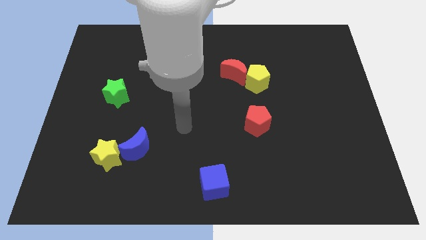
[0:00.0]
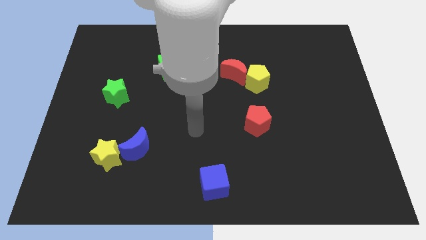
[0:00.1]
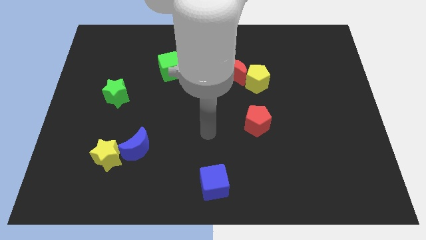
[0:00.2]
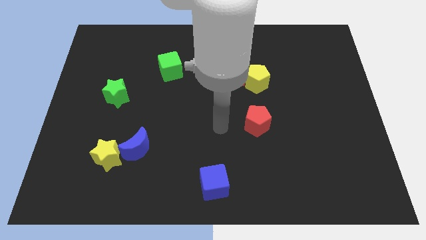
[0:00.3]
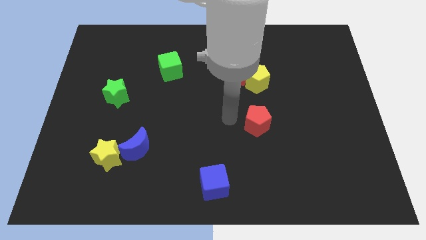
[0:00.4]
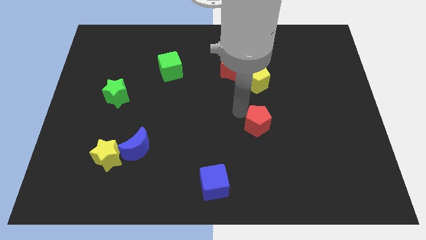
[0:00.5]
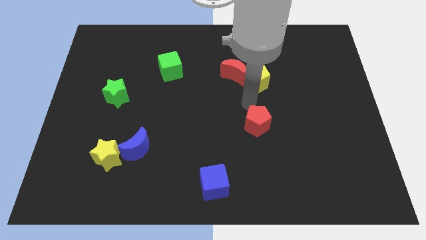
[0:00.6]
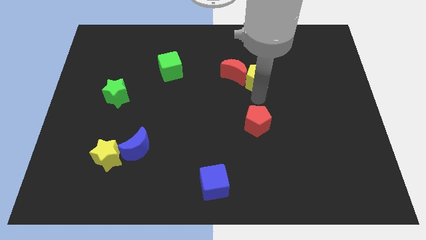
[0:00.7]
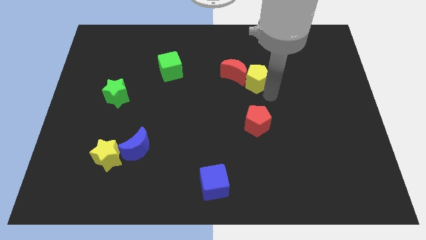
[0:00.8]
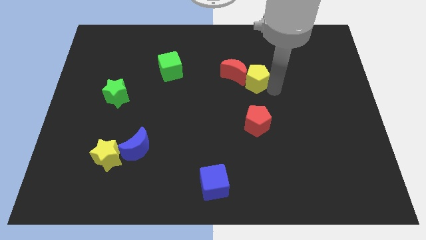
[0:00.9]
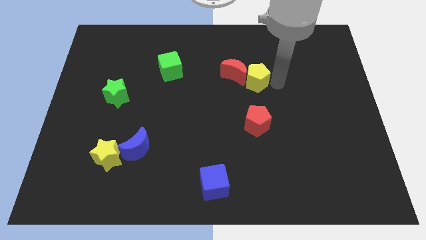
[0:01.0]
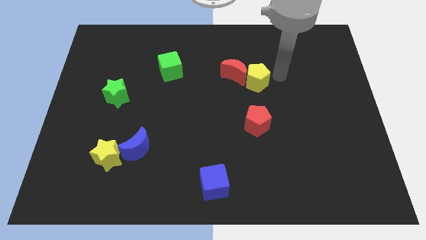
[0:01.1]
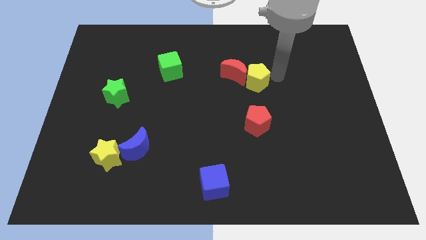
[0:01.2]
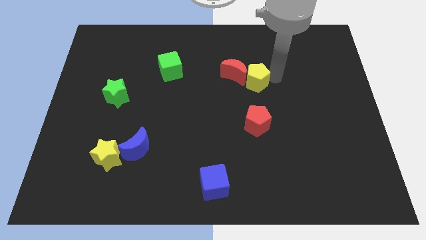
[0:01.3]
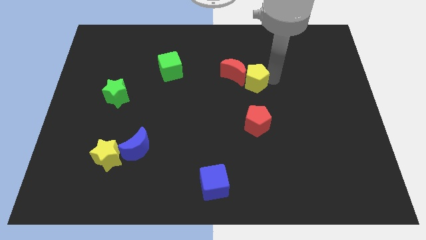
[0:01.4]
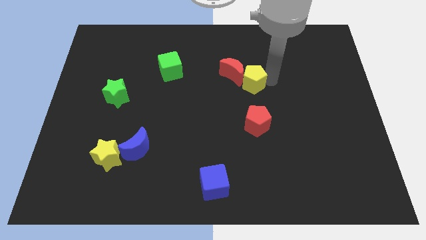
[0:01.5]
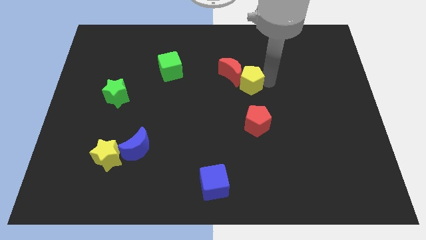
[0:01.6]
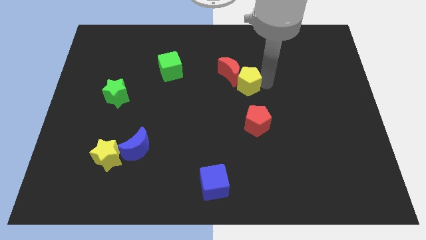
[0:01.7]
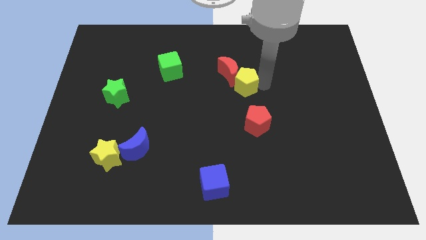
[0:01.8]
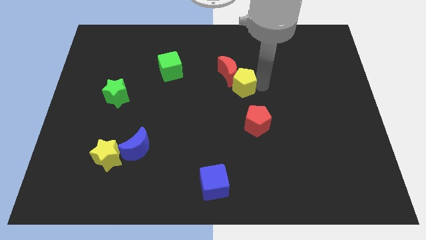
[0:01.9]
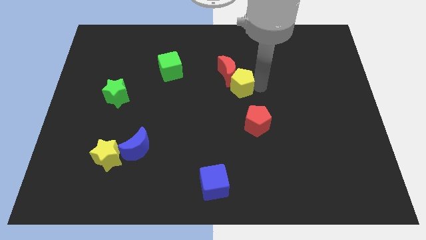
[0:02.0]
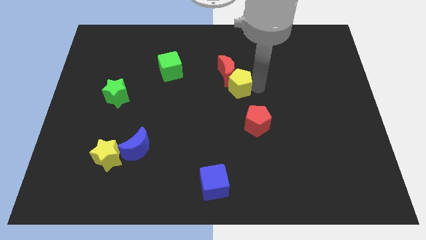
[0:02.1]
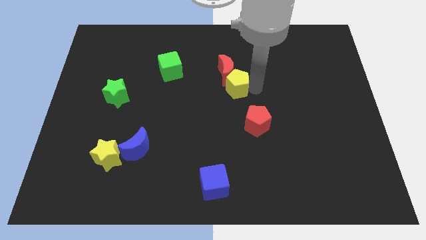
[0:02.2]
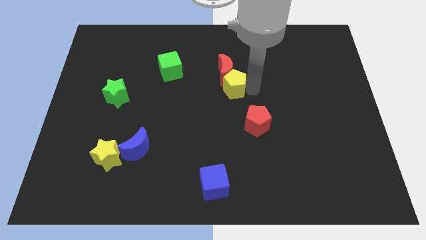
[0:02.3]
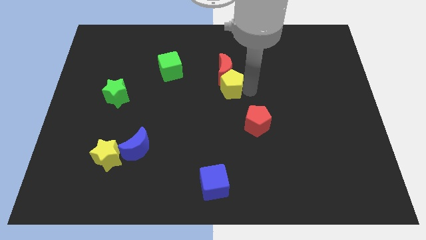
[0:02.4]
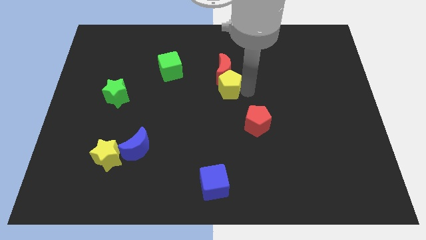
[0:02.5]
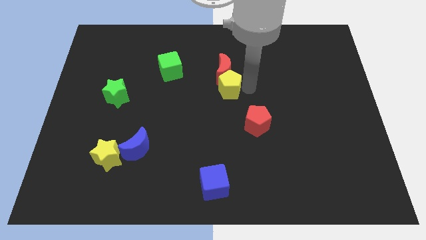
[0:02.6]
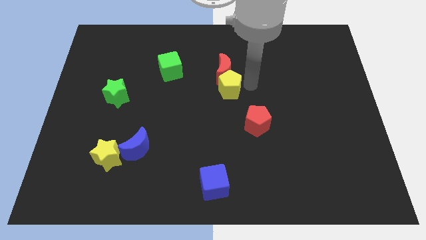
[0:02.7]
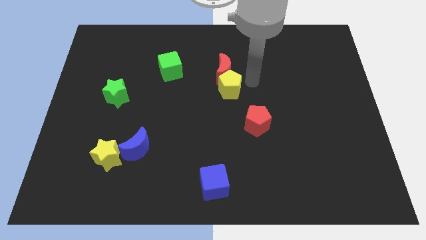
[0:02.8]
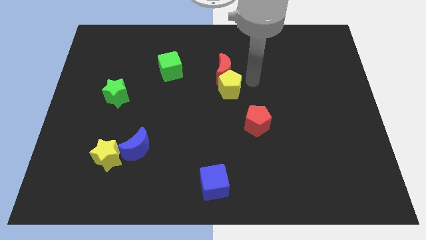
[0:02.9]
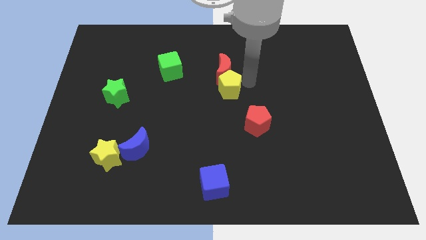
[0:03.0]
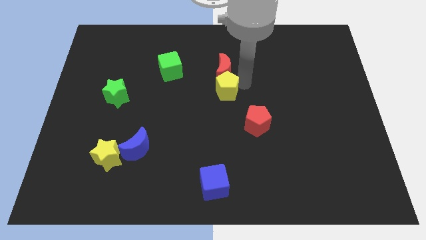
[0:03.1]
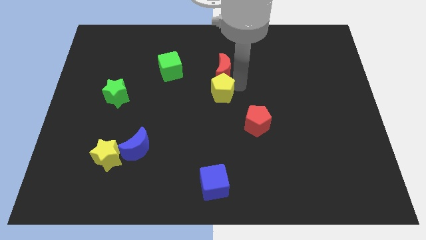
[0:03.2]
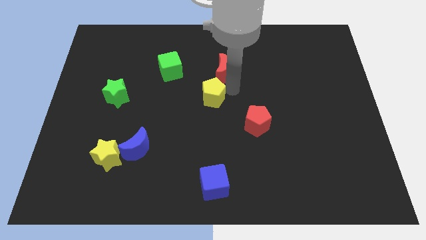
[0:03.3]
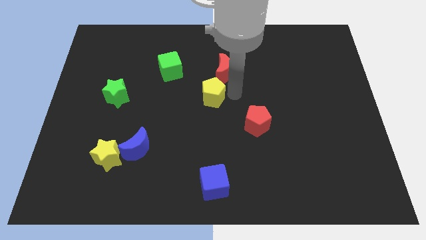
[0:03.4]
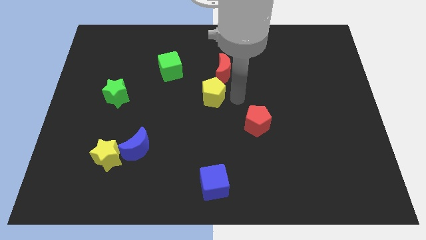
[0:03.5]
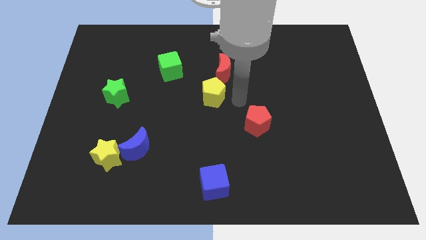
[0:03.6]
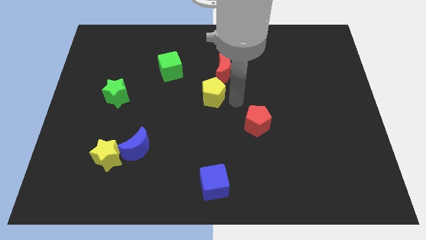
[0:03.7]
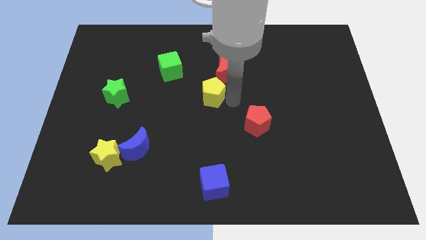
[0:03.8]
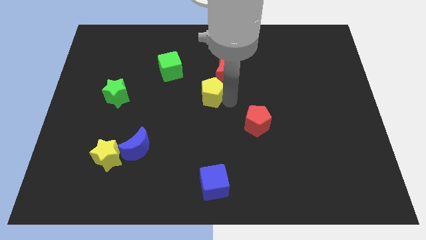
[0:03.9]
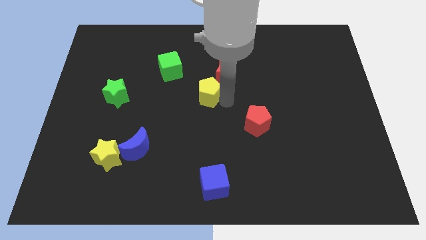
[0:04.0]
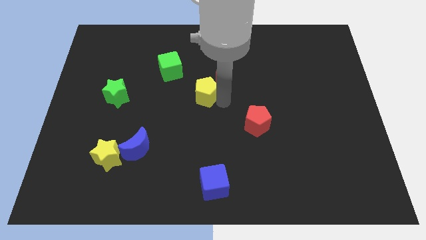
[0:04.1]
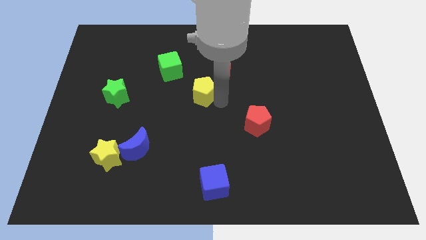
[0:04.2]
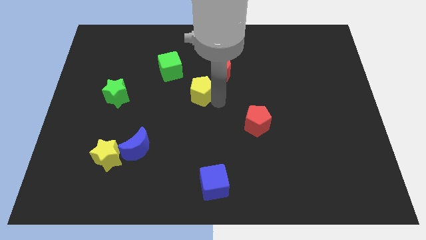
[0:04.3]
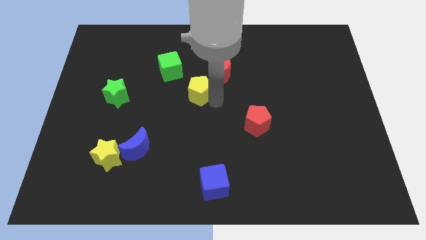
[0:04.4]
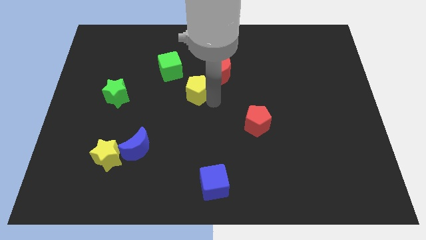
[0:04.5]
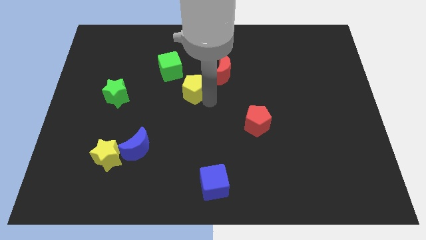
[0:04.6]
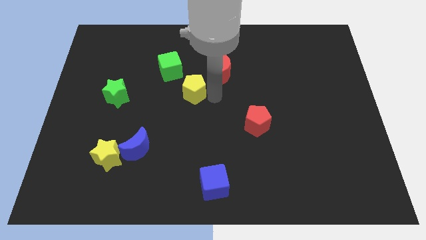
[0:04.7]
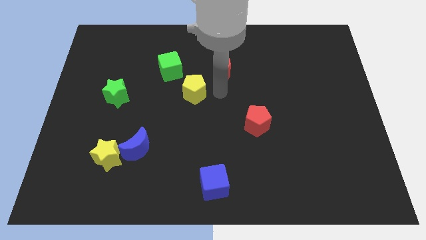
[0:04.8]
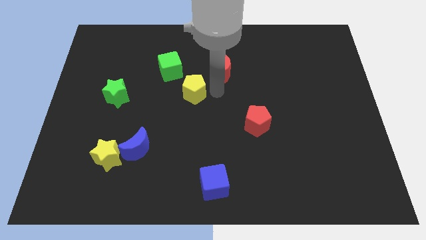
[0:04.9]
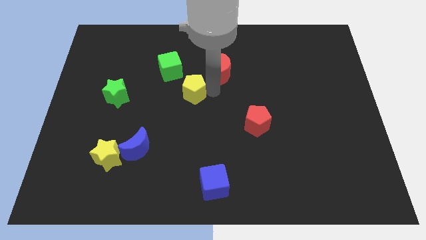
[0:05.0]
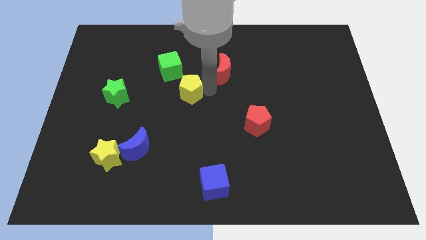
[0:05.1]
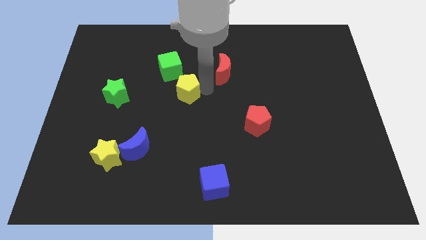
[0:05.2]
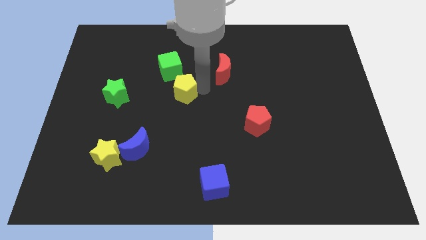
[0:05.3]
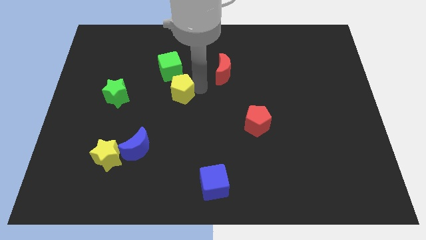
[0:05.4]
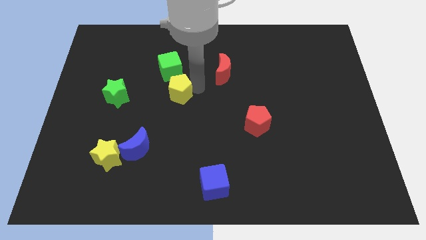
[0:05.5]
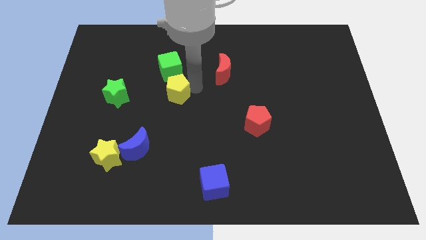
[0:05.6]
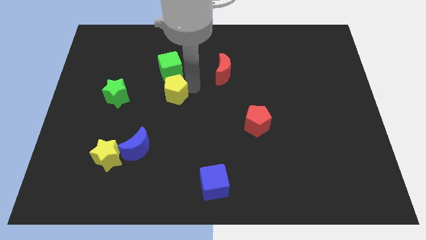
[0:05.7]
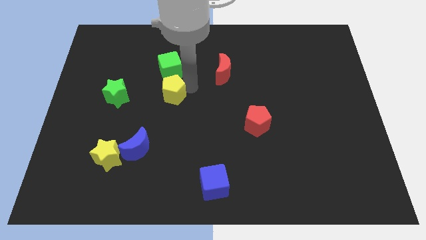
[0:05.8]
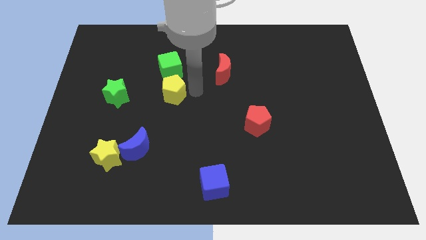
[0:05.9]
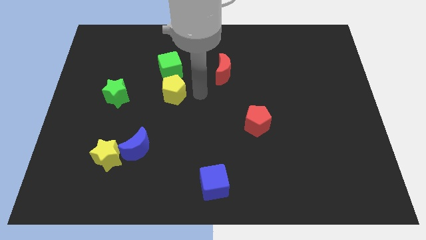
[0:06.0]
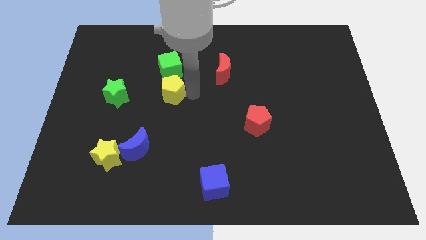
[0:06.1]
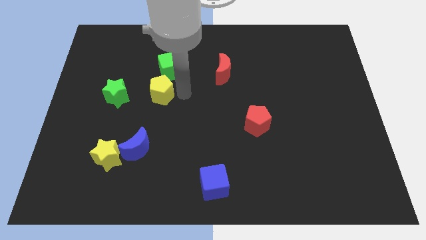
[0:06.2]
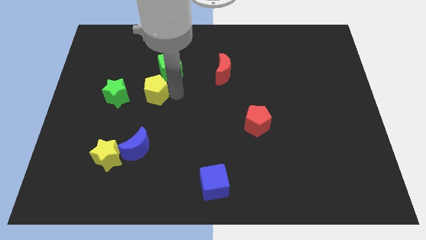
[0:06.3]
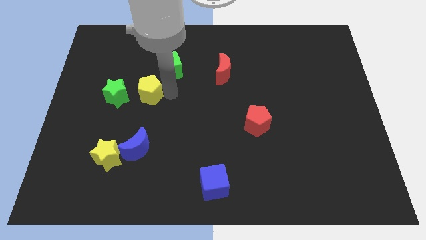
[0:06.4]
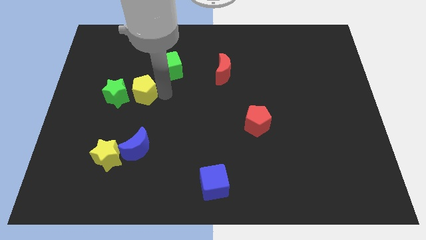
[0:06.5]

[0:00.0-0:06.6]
slide the yellow pentagon towards the green star

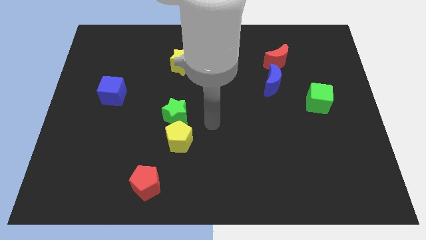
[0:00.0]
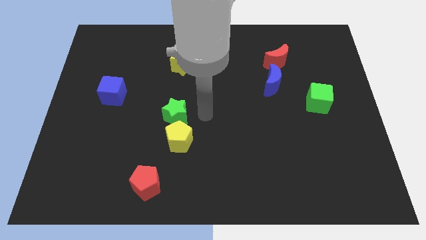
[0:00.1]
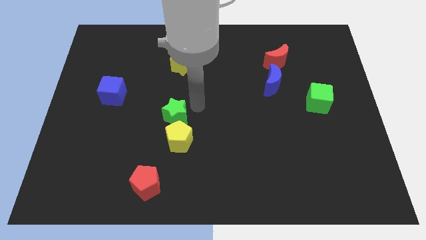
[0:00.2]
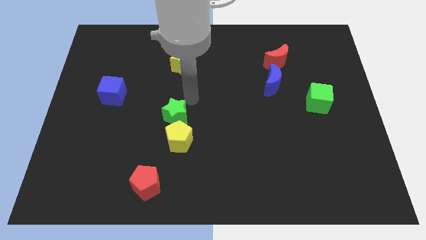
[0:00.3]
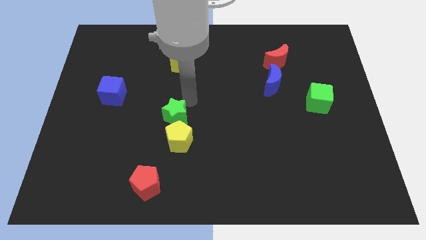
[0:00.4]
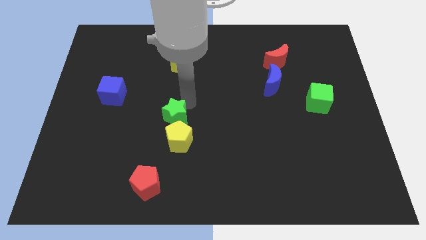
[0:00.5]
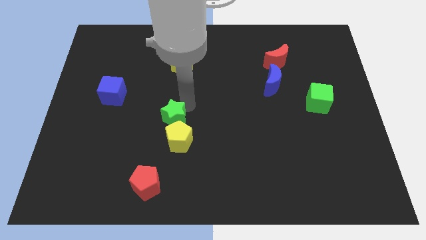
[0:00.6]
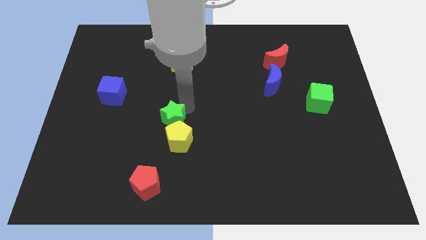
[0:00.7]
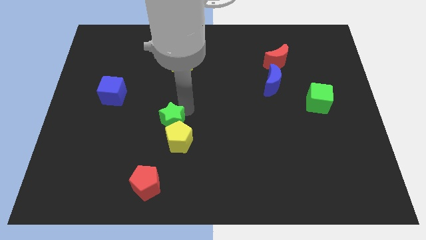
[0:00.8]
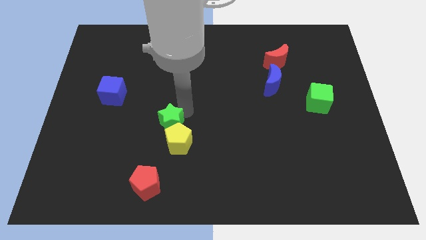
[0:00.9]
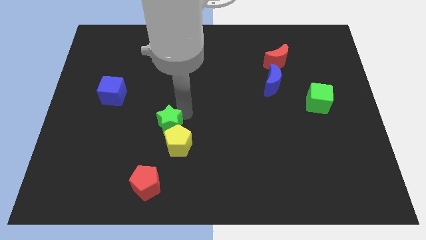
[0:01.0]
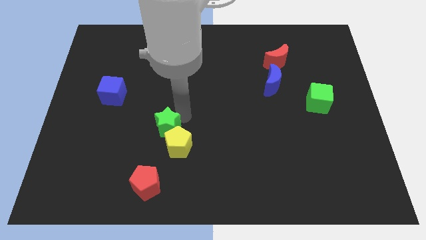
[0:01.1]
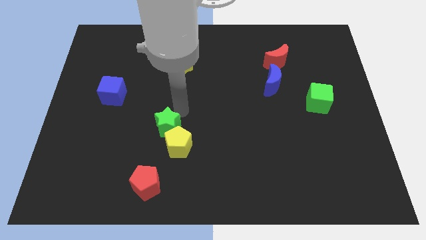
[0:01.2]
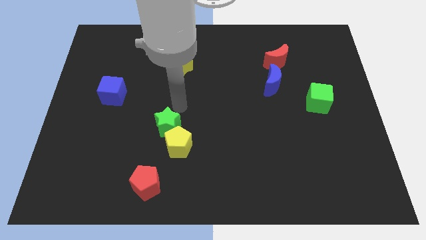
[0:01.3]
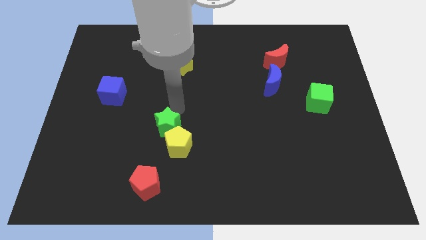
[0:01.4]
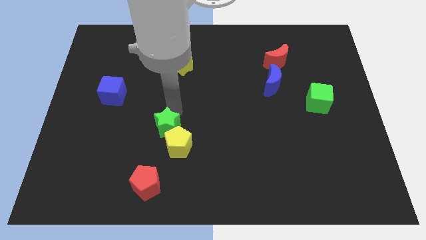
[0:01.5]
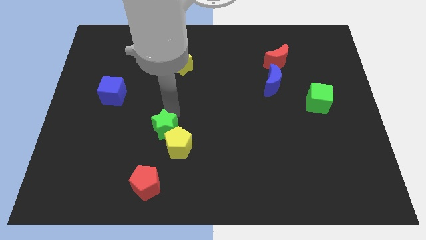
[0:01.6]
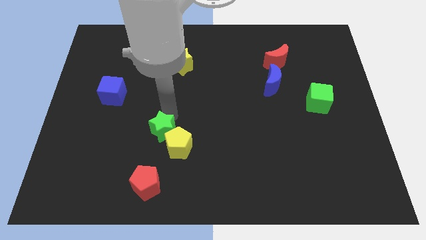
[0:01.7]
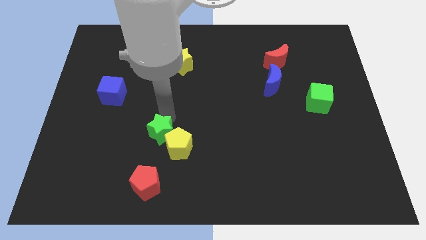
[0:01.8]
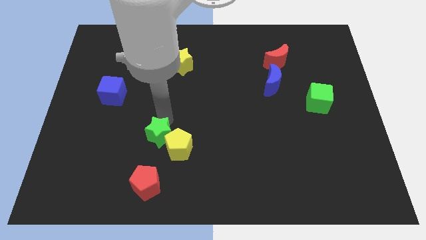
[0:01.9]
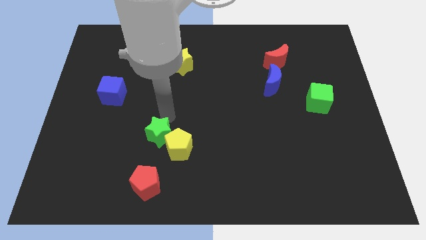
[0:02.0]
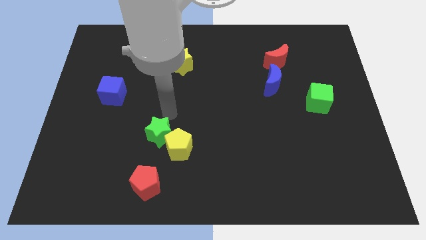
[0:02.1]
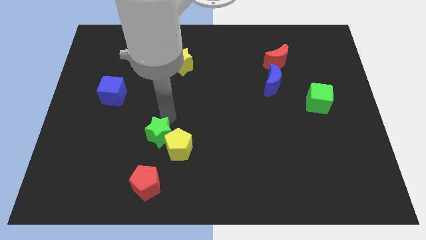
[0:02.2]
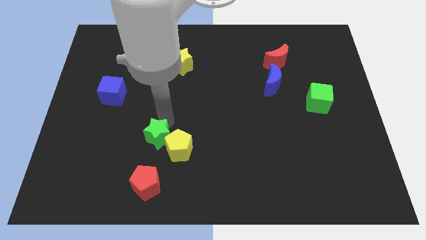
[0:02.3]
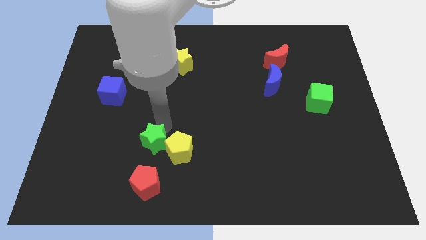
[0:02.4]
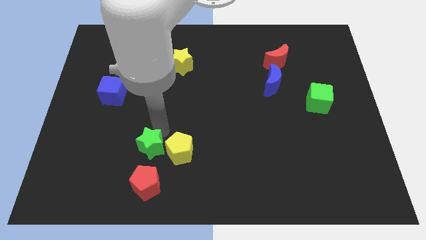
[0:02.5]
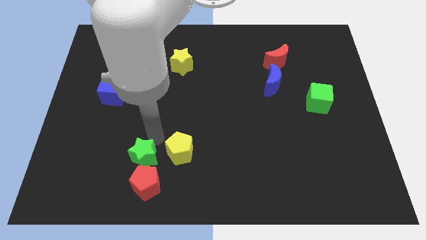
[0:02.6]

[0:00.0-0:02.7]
move the green star to the red pentagon
